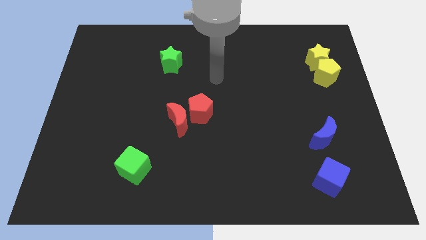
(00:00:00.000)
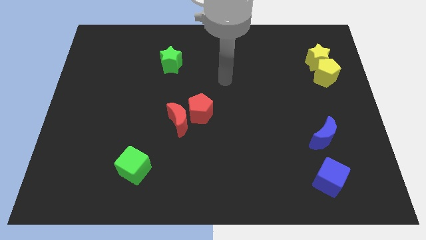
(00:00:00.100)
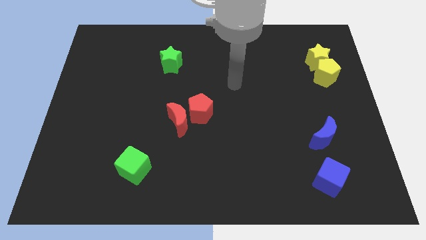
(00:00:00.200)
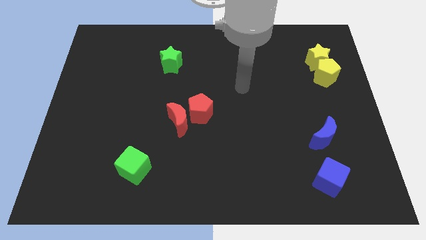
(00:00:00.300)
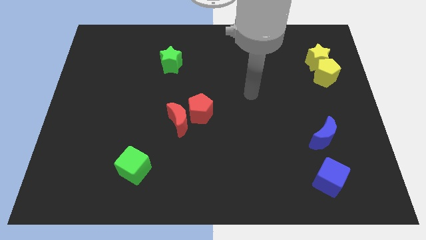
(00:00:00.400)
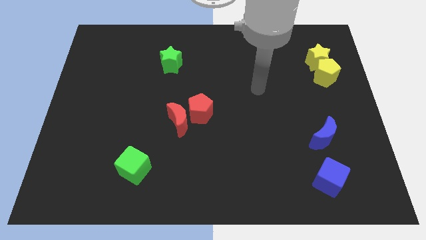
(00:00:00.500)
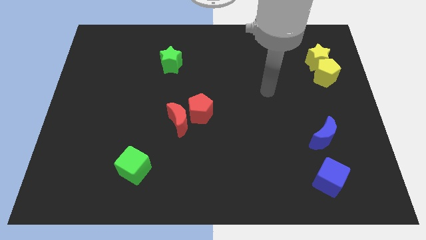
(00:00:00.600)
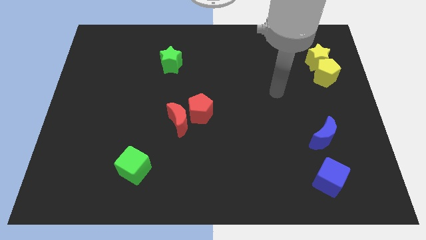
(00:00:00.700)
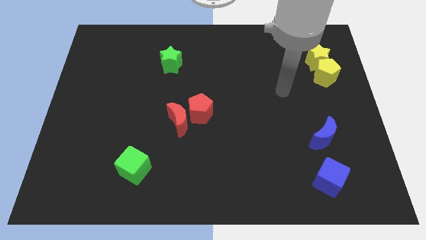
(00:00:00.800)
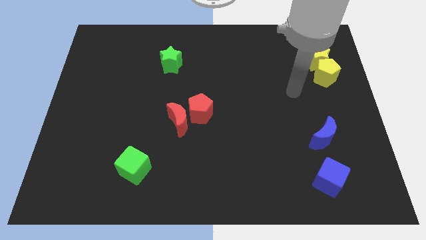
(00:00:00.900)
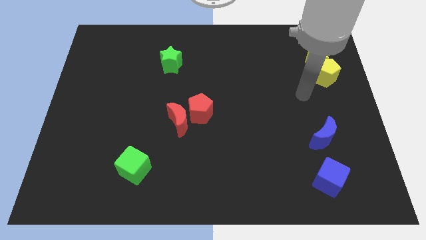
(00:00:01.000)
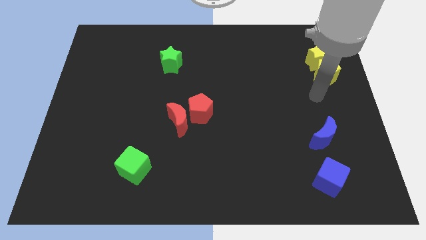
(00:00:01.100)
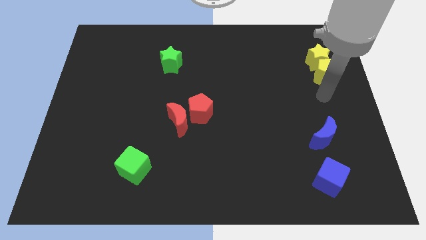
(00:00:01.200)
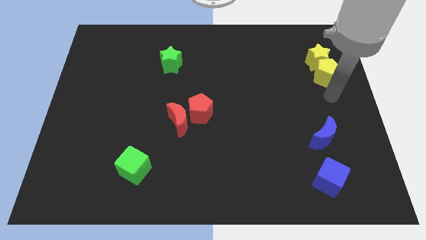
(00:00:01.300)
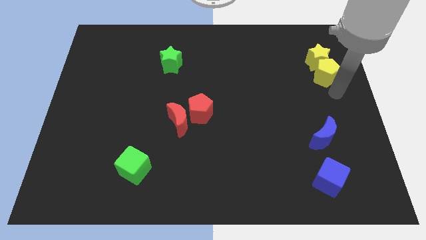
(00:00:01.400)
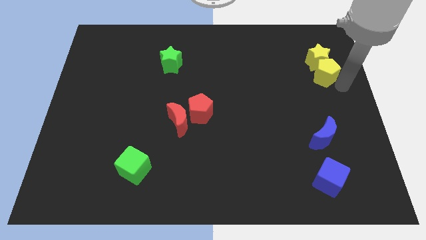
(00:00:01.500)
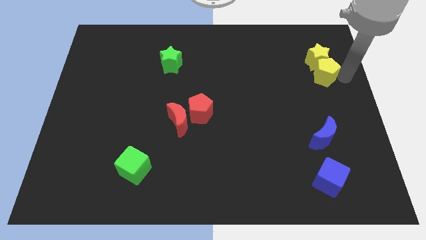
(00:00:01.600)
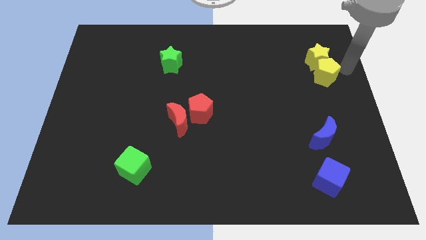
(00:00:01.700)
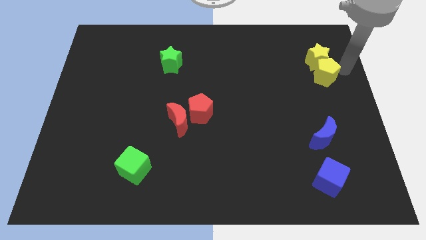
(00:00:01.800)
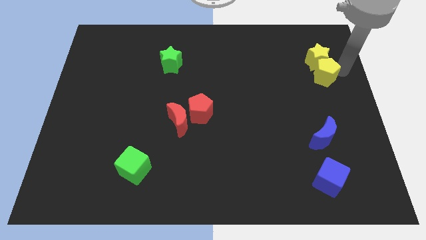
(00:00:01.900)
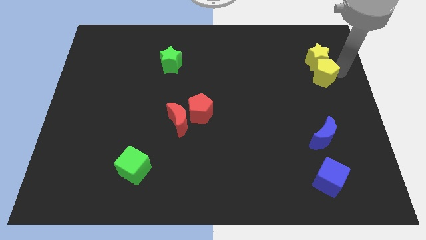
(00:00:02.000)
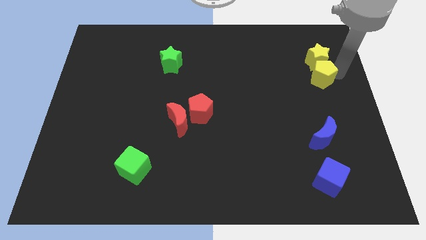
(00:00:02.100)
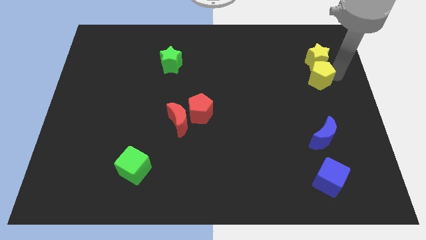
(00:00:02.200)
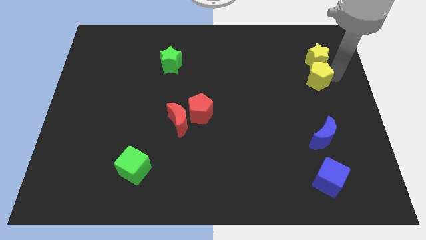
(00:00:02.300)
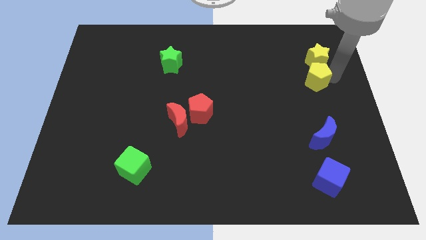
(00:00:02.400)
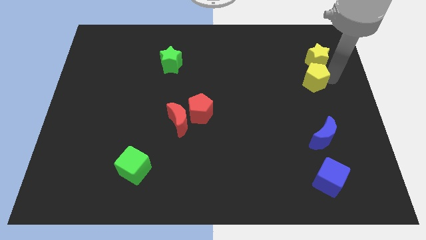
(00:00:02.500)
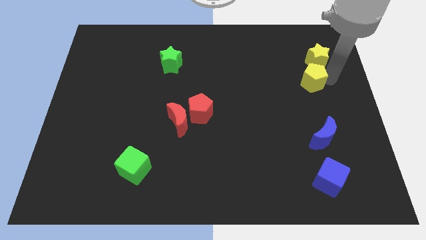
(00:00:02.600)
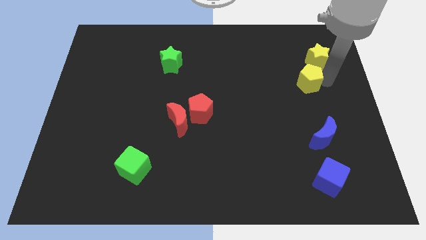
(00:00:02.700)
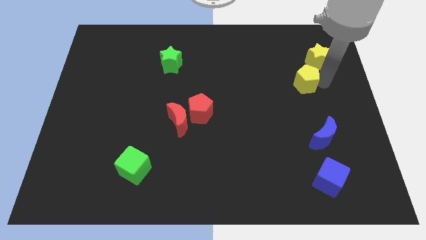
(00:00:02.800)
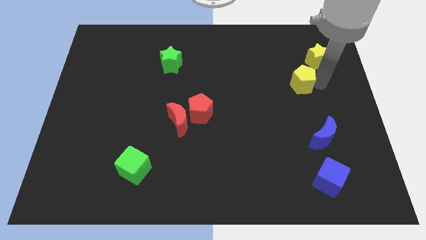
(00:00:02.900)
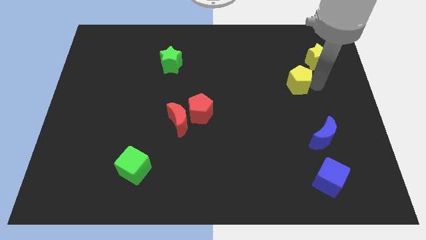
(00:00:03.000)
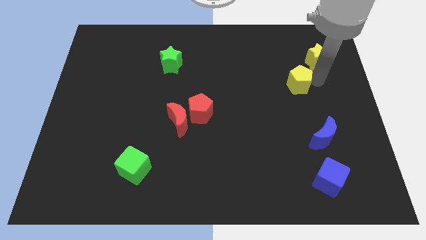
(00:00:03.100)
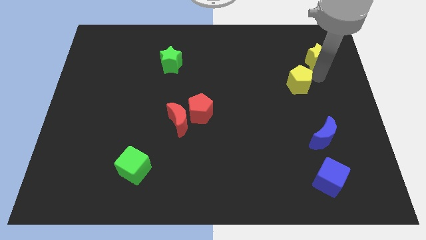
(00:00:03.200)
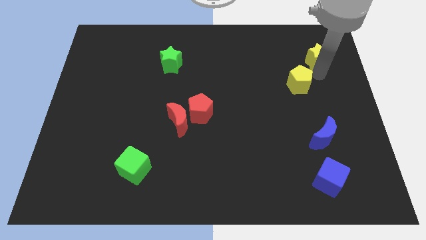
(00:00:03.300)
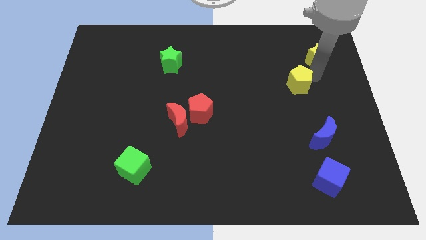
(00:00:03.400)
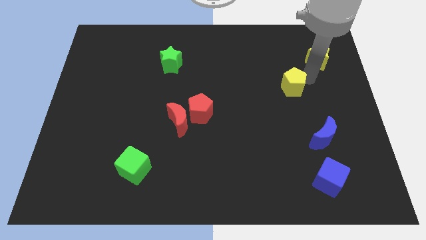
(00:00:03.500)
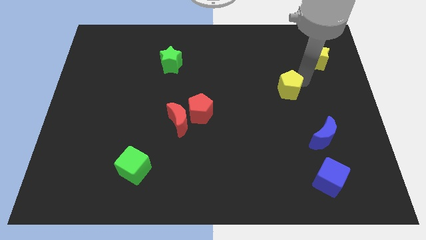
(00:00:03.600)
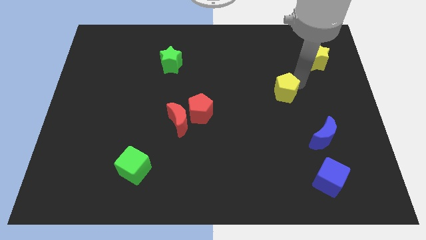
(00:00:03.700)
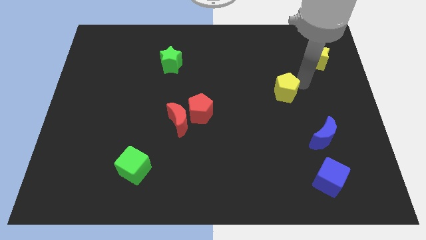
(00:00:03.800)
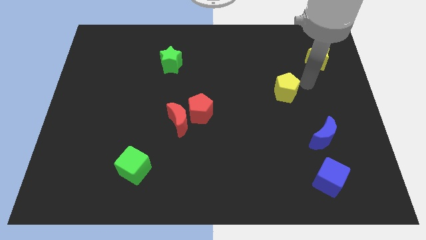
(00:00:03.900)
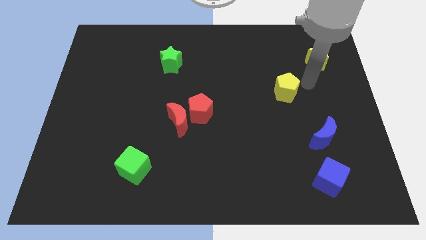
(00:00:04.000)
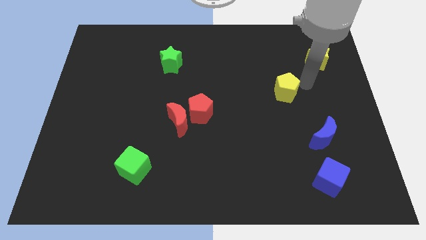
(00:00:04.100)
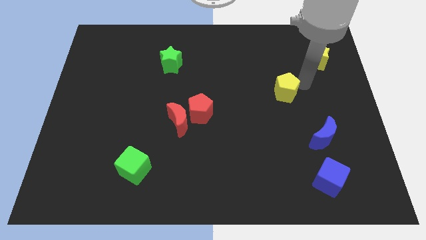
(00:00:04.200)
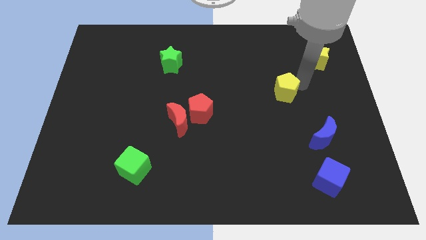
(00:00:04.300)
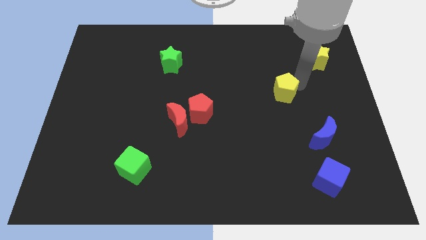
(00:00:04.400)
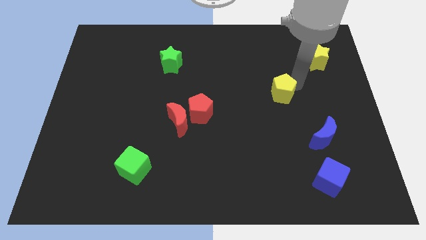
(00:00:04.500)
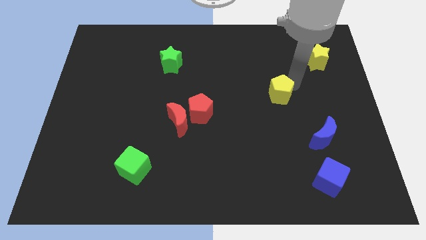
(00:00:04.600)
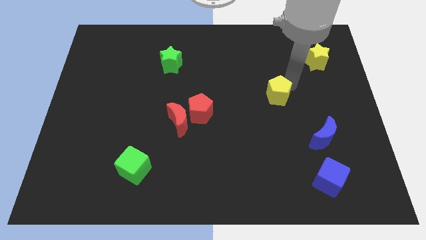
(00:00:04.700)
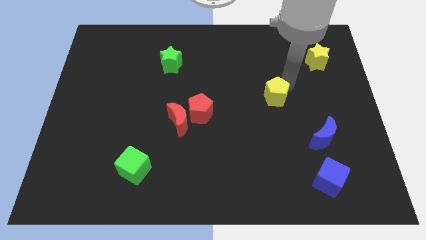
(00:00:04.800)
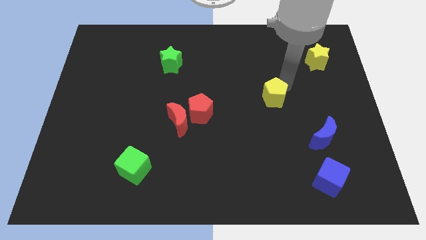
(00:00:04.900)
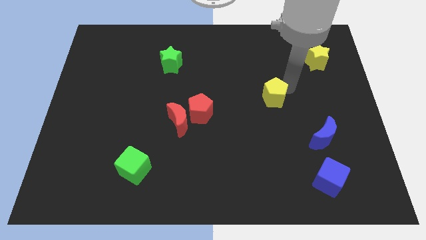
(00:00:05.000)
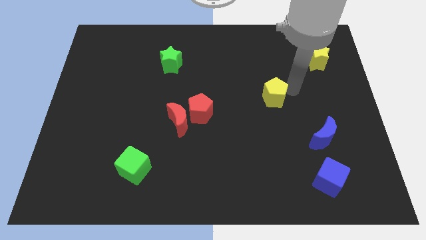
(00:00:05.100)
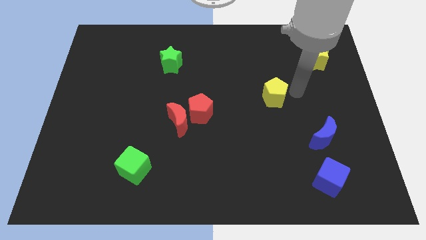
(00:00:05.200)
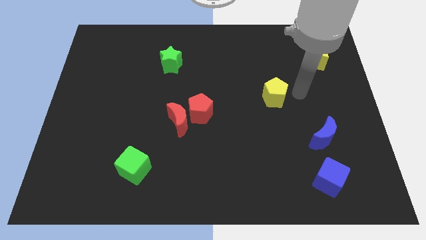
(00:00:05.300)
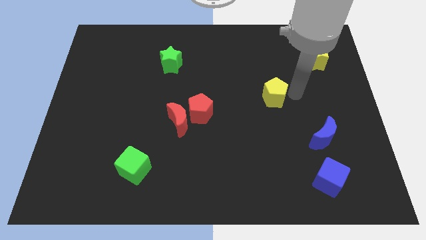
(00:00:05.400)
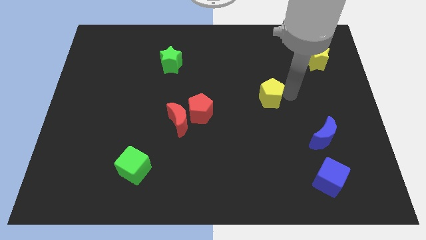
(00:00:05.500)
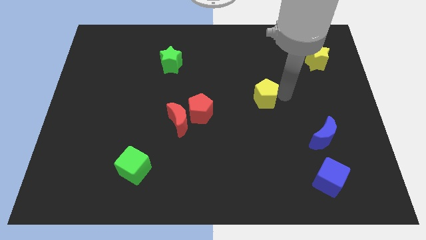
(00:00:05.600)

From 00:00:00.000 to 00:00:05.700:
push the yellow pentagon to the middle

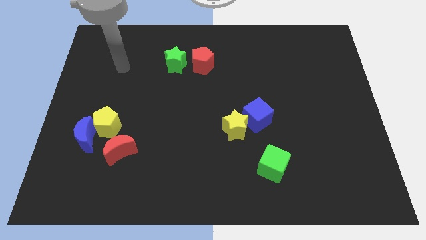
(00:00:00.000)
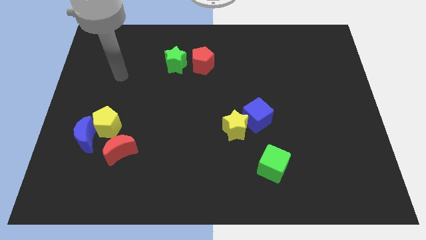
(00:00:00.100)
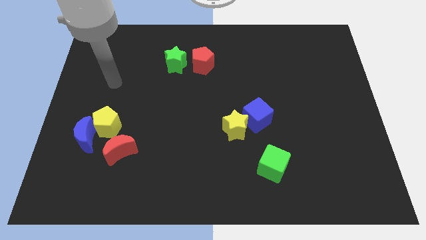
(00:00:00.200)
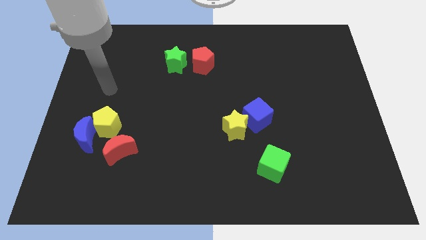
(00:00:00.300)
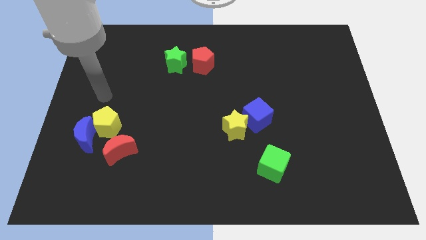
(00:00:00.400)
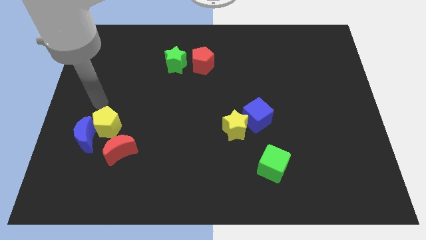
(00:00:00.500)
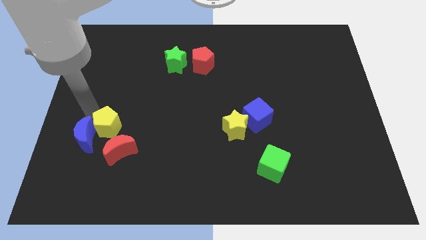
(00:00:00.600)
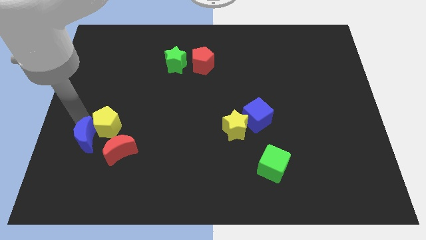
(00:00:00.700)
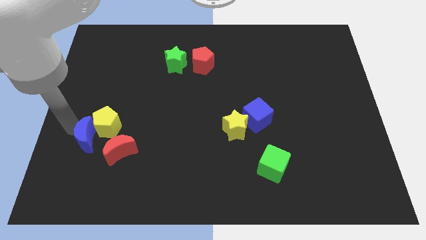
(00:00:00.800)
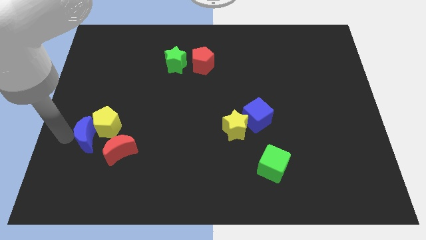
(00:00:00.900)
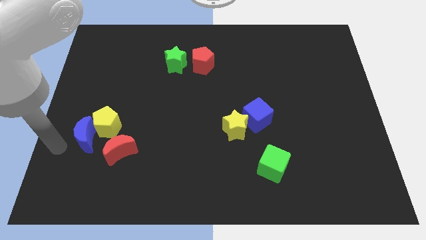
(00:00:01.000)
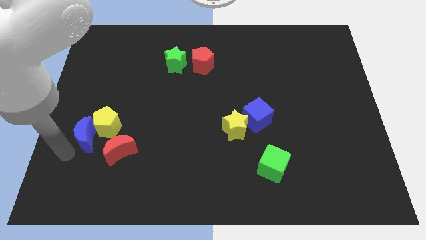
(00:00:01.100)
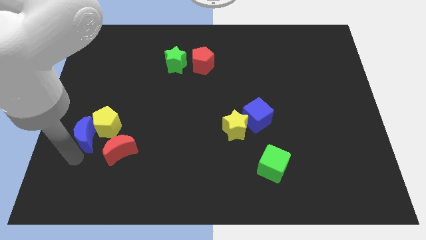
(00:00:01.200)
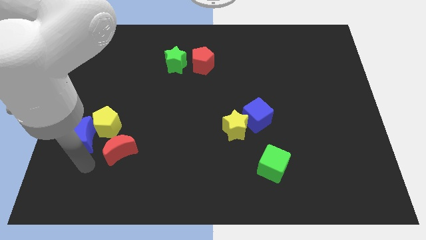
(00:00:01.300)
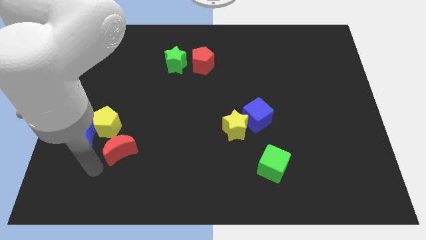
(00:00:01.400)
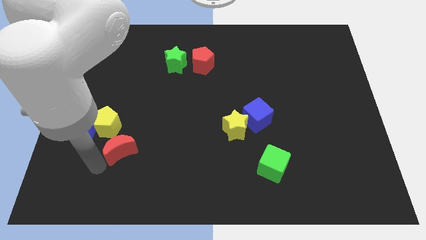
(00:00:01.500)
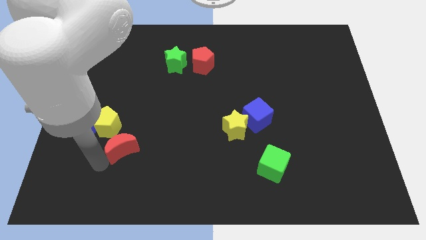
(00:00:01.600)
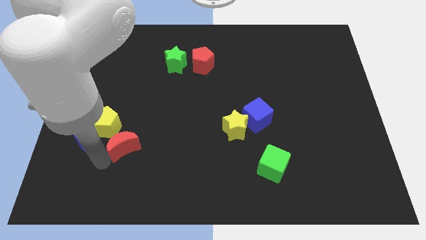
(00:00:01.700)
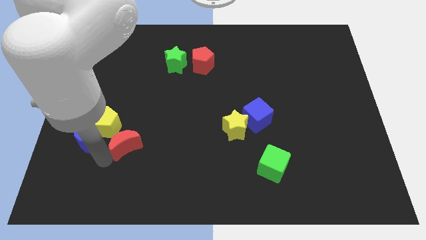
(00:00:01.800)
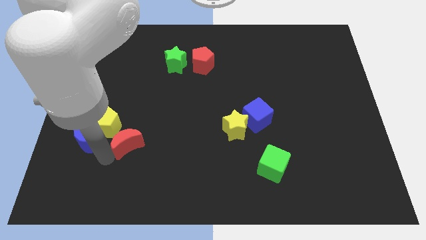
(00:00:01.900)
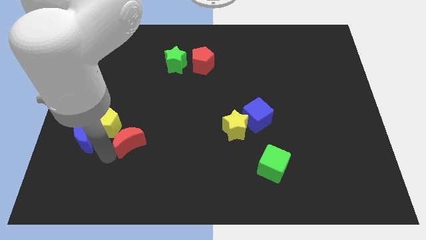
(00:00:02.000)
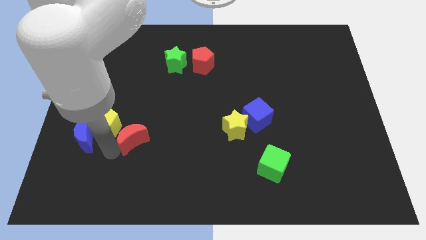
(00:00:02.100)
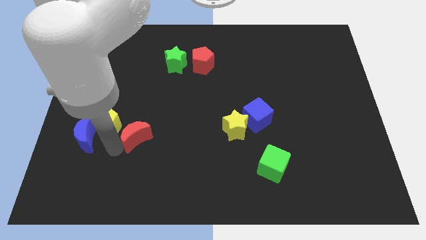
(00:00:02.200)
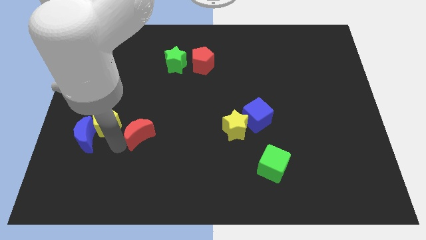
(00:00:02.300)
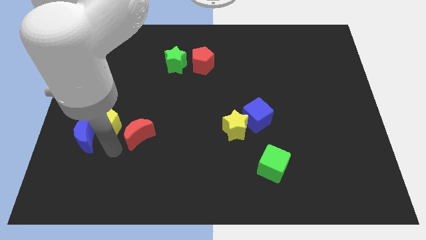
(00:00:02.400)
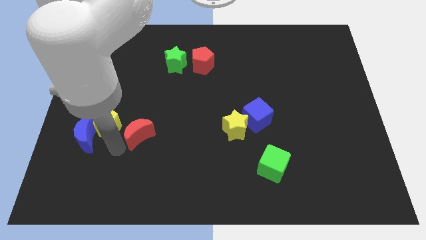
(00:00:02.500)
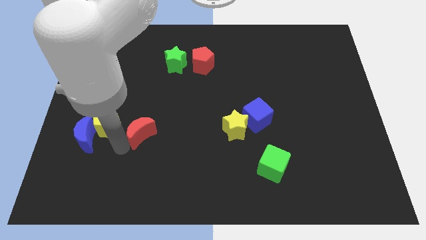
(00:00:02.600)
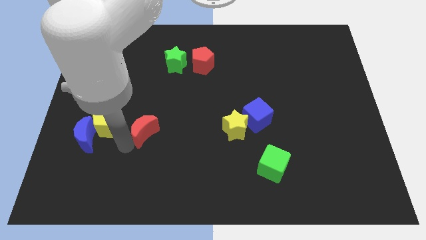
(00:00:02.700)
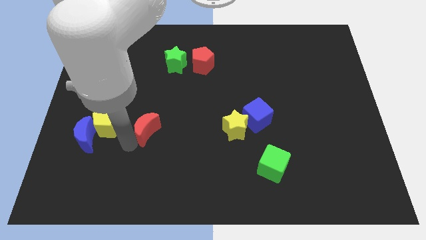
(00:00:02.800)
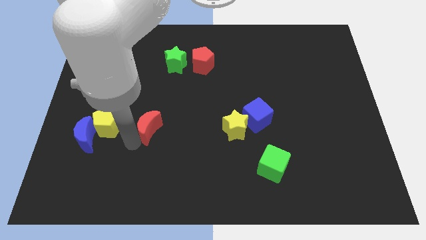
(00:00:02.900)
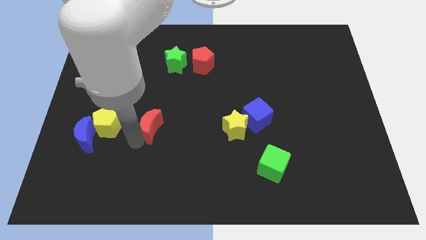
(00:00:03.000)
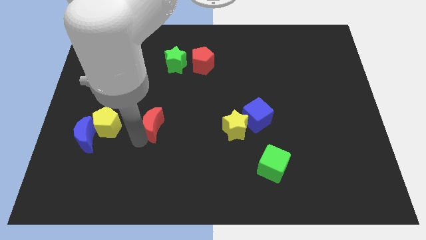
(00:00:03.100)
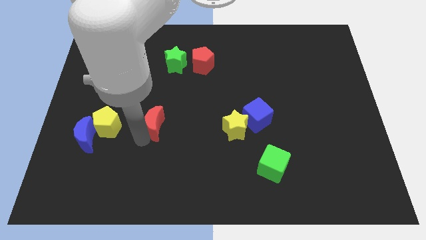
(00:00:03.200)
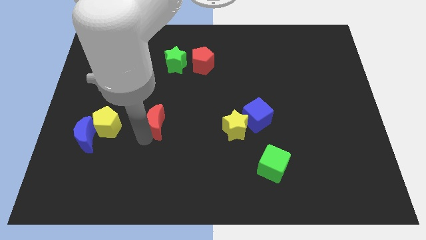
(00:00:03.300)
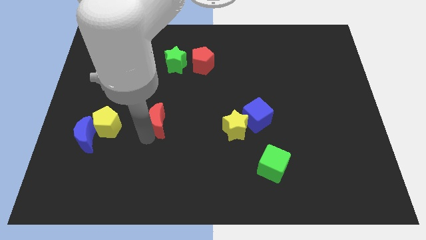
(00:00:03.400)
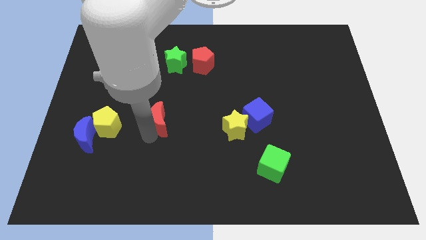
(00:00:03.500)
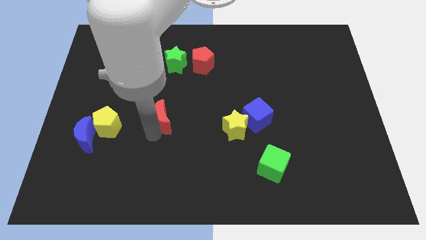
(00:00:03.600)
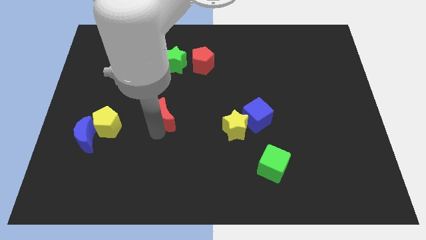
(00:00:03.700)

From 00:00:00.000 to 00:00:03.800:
push the red moon to the middle
